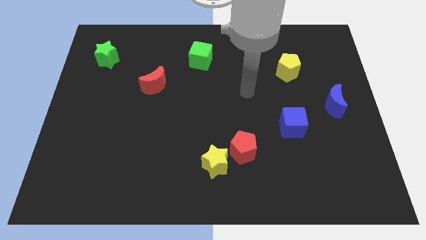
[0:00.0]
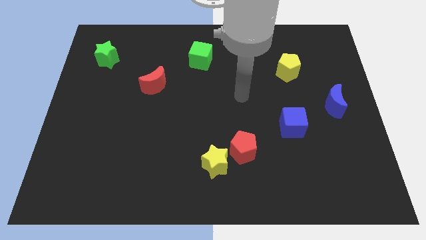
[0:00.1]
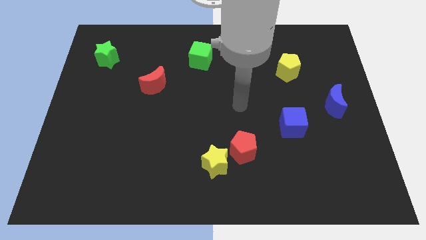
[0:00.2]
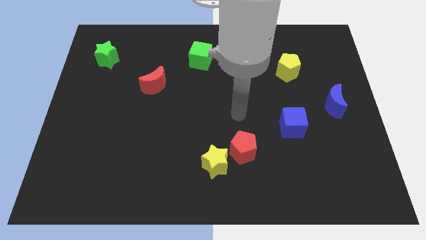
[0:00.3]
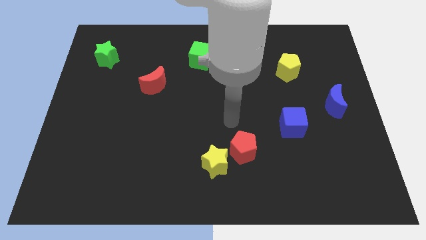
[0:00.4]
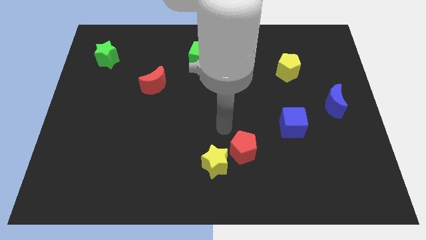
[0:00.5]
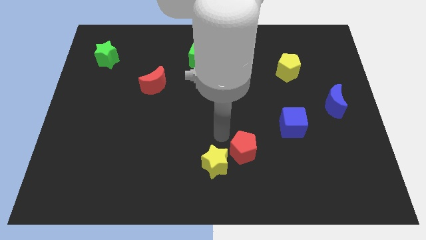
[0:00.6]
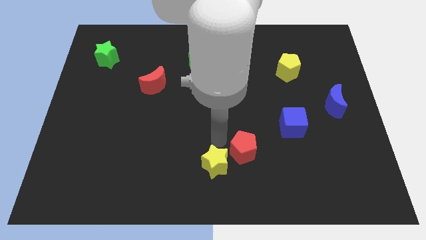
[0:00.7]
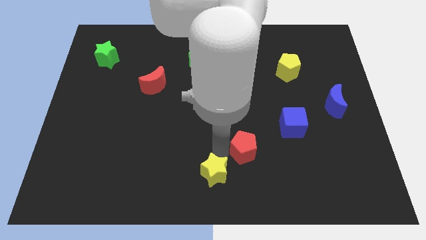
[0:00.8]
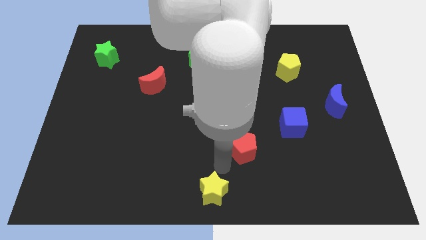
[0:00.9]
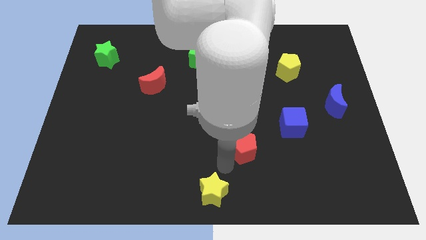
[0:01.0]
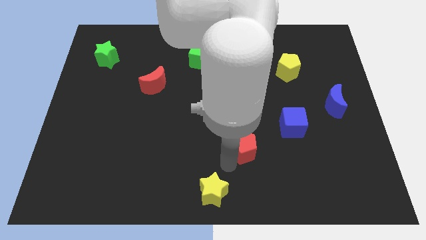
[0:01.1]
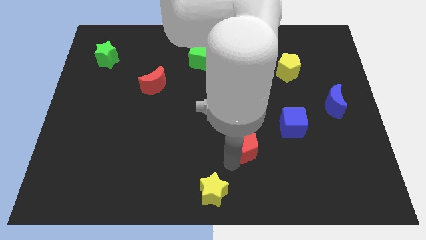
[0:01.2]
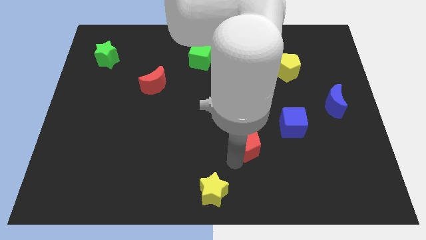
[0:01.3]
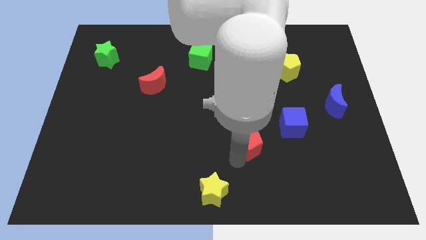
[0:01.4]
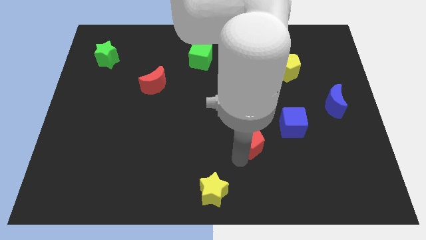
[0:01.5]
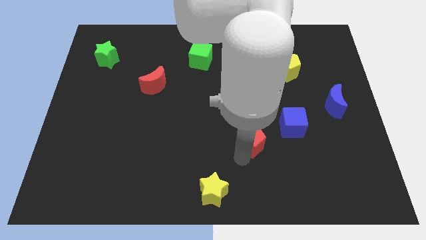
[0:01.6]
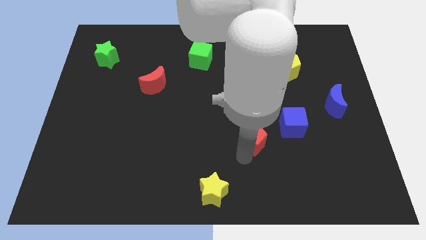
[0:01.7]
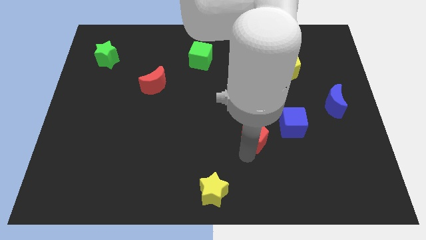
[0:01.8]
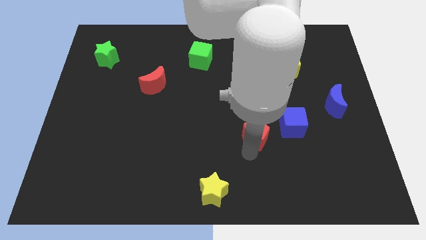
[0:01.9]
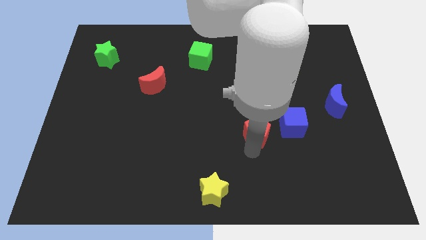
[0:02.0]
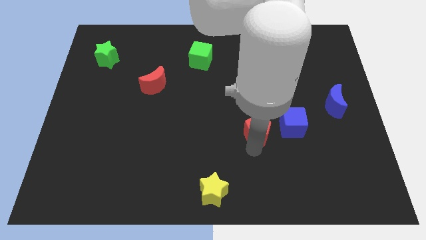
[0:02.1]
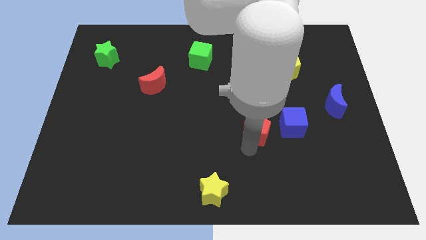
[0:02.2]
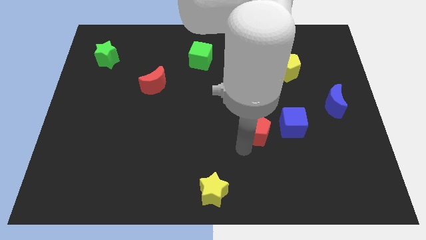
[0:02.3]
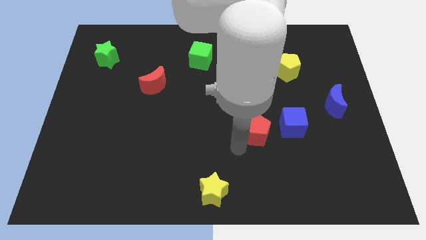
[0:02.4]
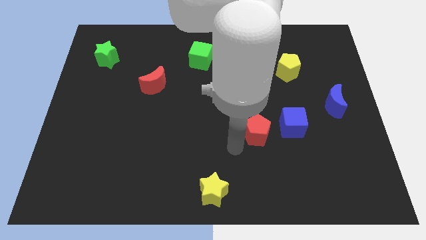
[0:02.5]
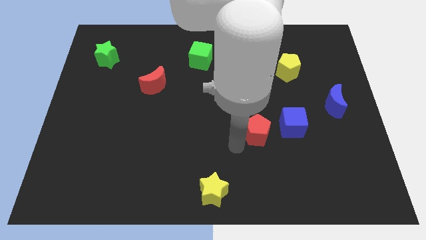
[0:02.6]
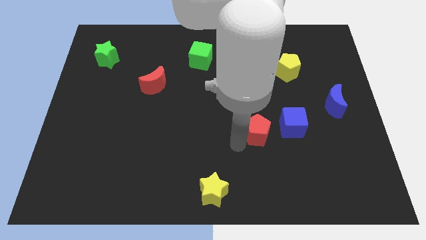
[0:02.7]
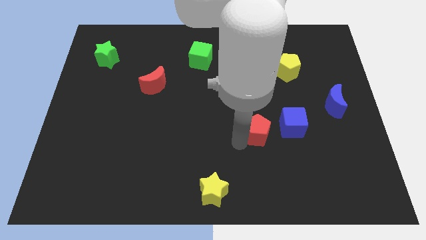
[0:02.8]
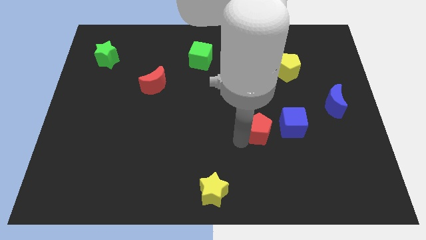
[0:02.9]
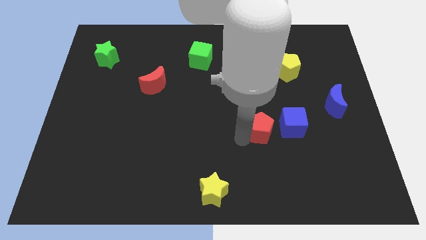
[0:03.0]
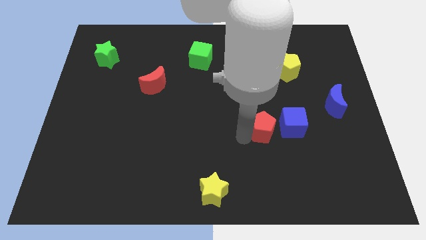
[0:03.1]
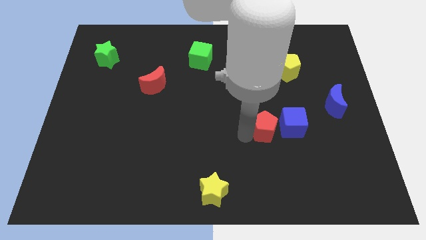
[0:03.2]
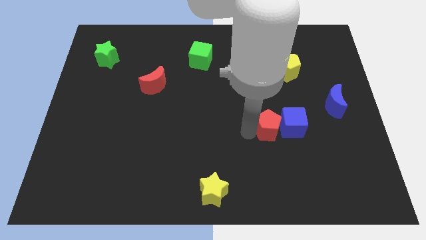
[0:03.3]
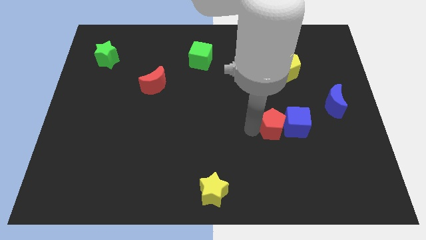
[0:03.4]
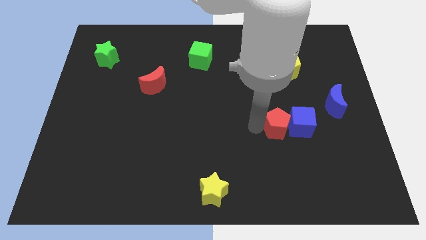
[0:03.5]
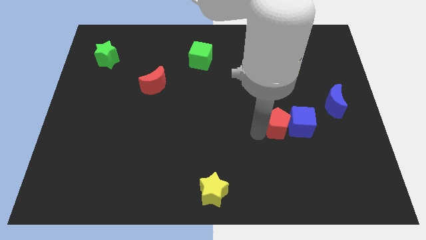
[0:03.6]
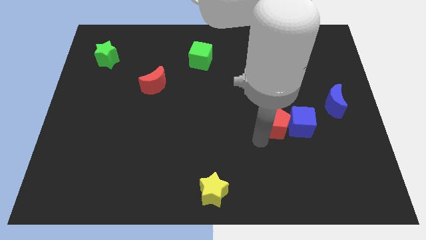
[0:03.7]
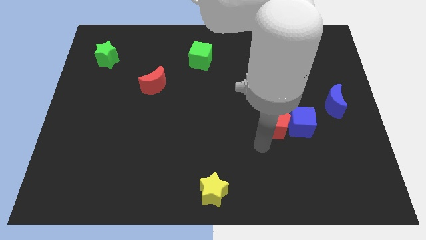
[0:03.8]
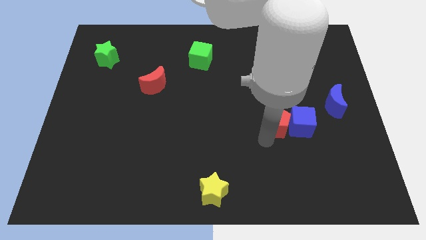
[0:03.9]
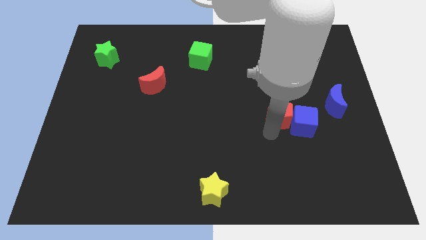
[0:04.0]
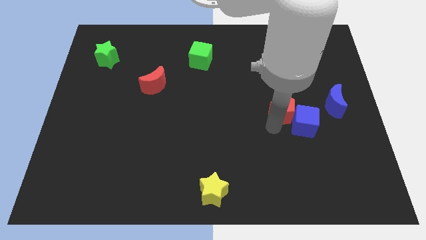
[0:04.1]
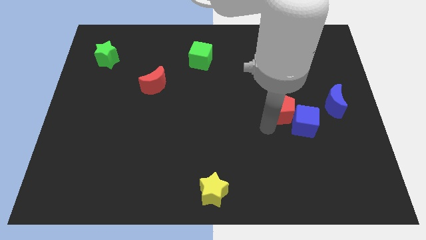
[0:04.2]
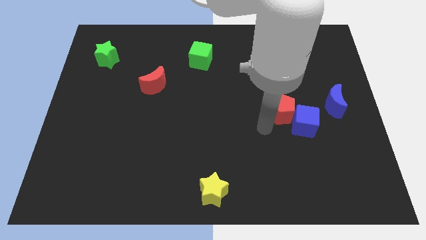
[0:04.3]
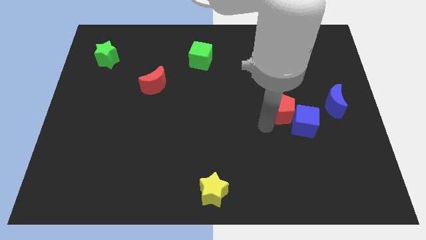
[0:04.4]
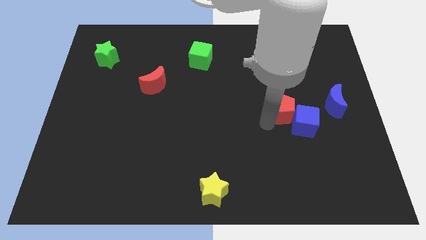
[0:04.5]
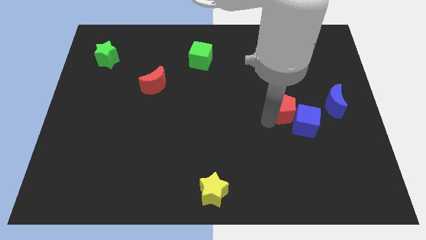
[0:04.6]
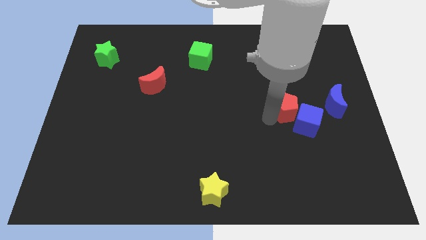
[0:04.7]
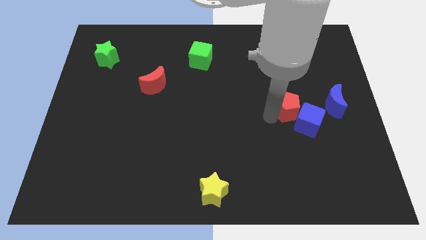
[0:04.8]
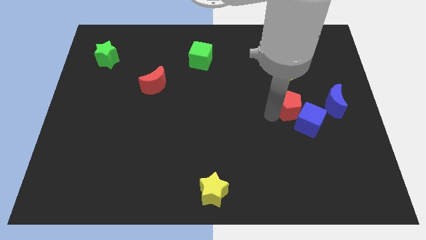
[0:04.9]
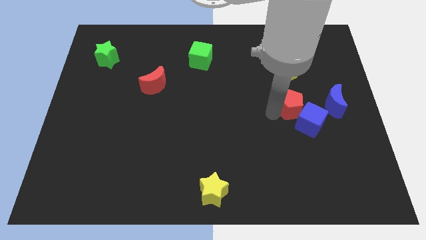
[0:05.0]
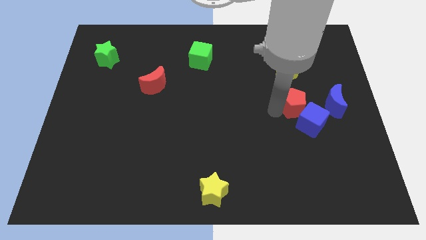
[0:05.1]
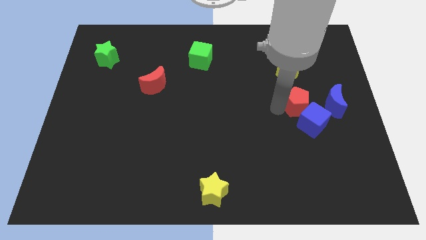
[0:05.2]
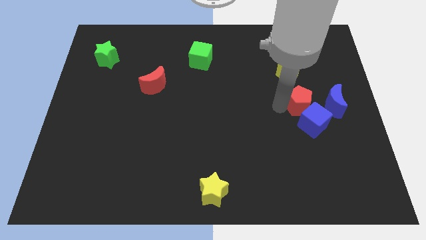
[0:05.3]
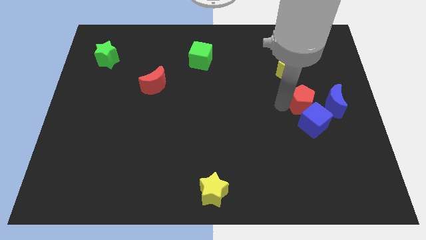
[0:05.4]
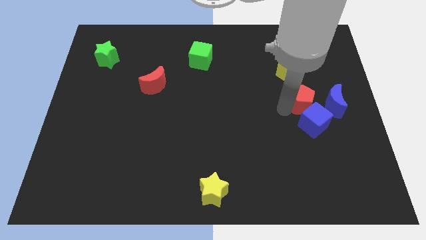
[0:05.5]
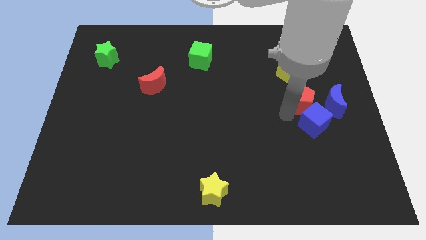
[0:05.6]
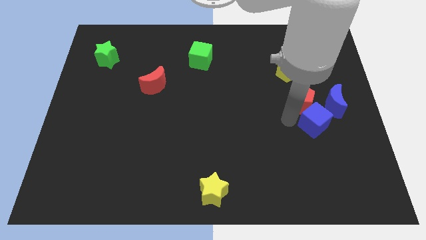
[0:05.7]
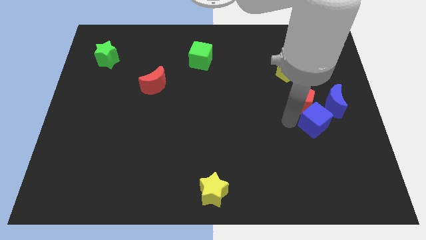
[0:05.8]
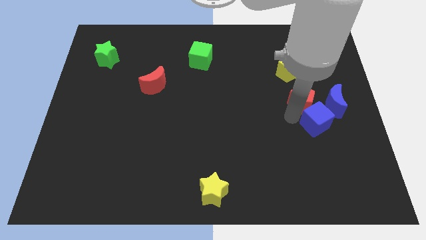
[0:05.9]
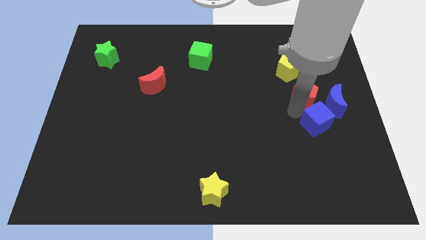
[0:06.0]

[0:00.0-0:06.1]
put the red pentagon to the bottom right side of the yellow pentagon

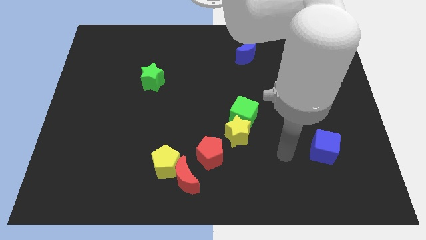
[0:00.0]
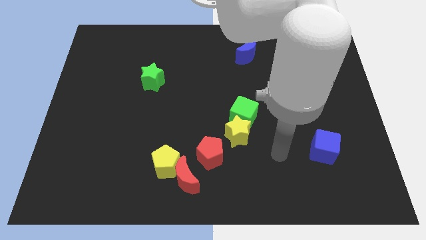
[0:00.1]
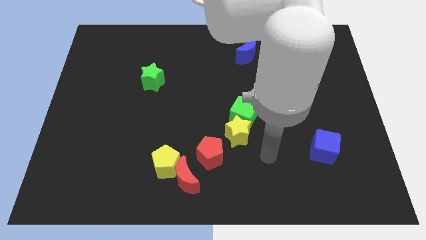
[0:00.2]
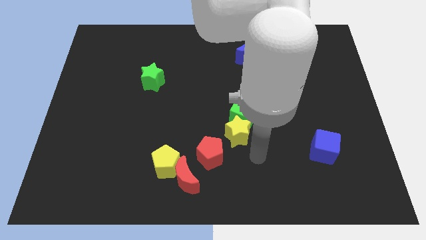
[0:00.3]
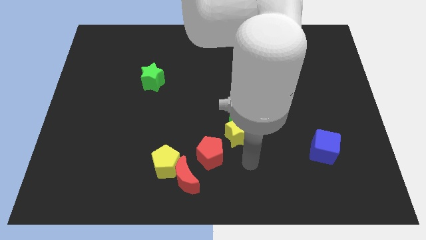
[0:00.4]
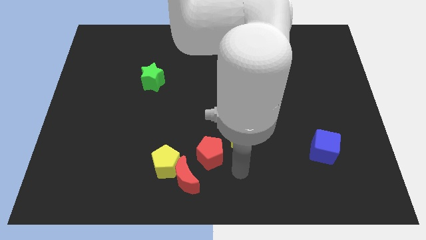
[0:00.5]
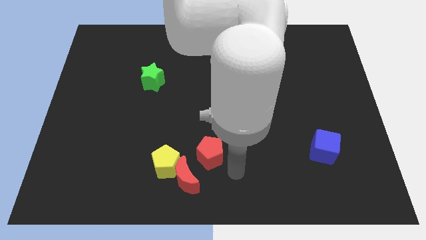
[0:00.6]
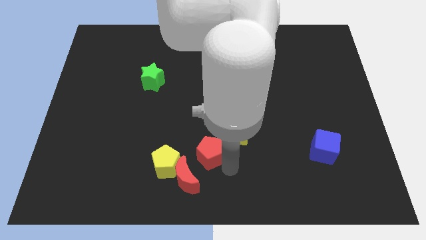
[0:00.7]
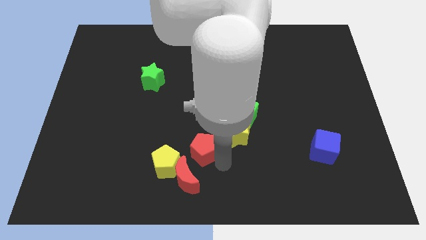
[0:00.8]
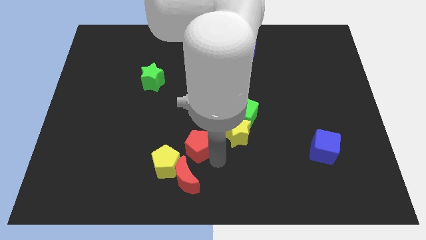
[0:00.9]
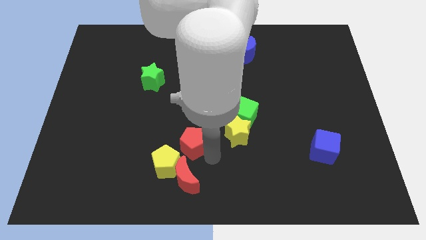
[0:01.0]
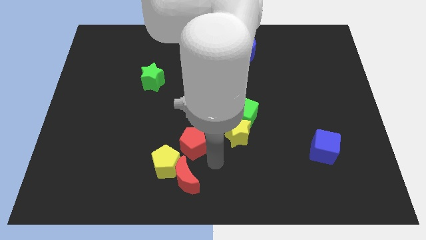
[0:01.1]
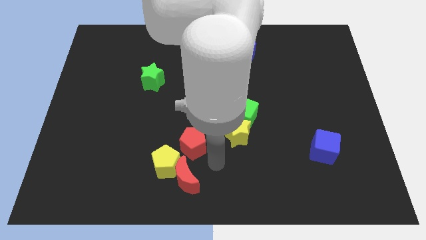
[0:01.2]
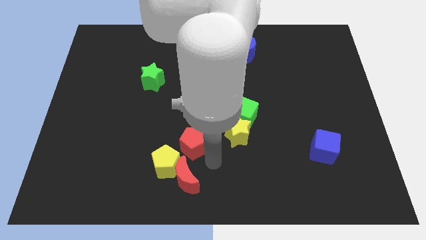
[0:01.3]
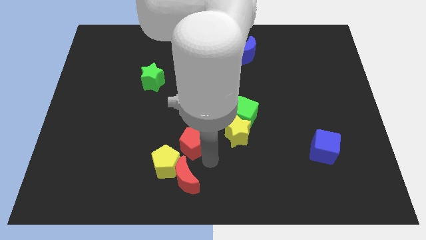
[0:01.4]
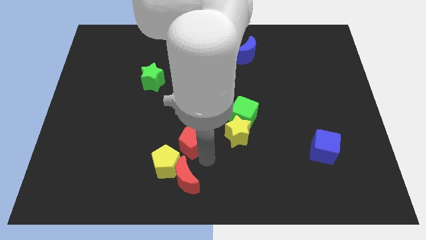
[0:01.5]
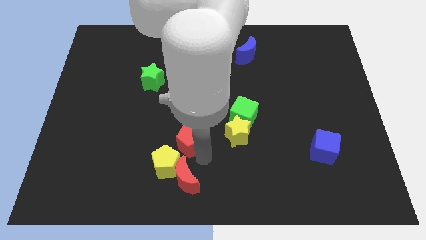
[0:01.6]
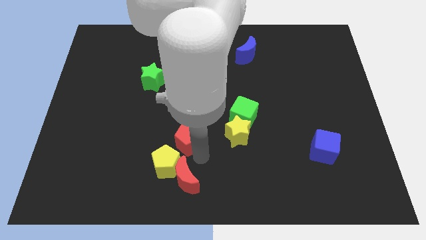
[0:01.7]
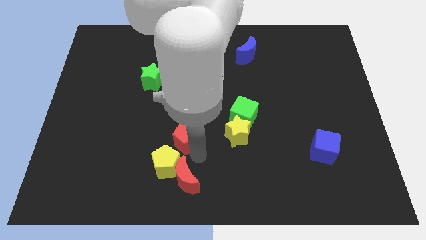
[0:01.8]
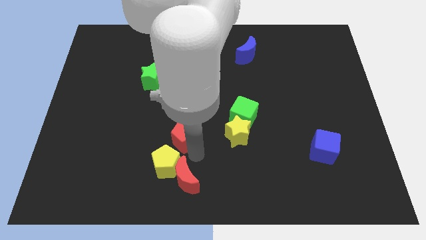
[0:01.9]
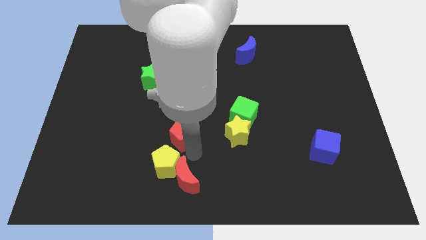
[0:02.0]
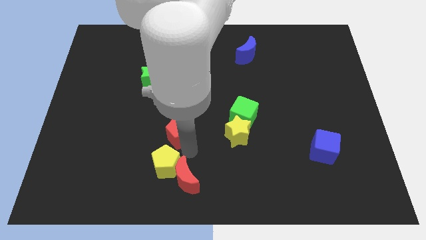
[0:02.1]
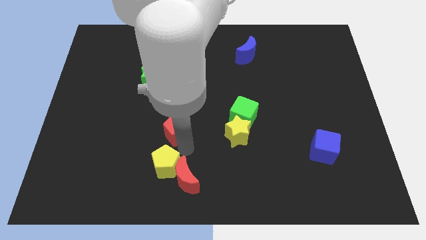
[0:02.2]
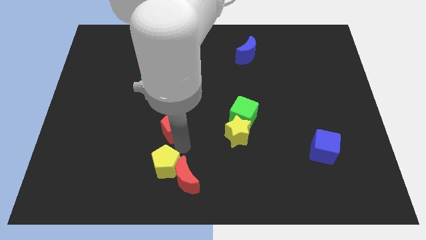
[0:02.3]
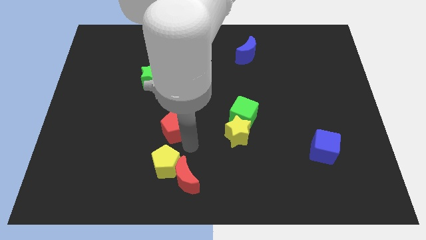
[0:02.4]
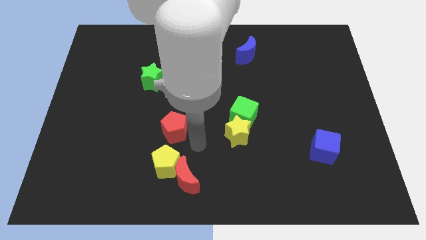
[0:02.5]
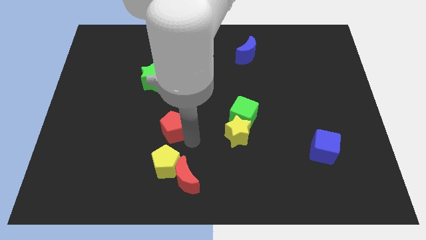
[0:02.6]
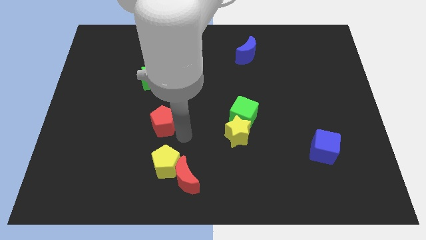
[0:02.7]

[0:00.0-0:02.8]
move the red pentagon below the green star
